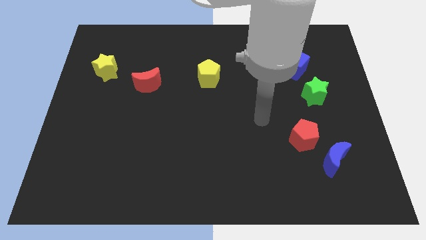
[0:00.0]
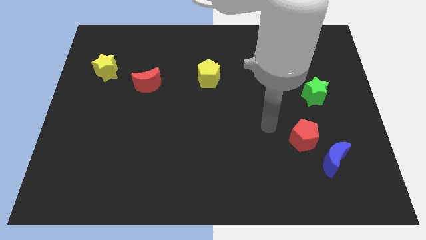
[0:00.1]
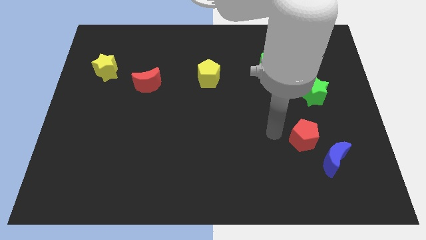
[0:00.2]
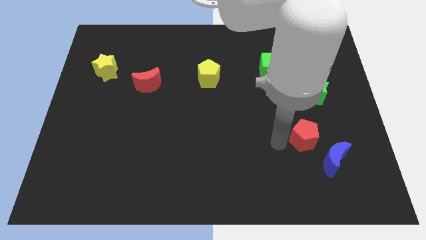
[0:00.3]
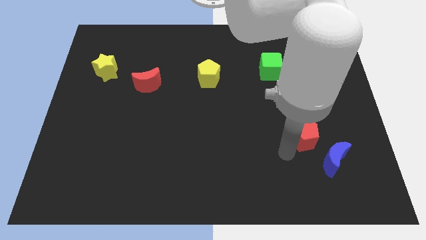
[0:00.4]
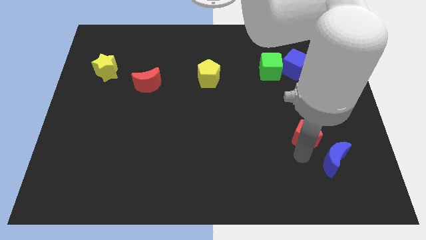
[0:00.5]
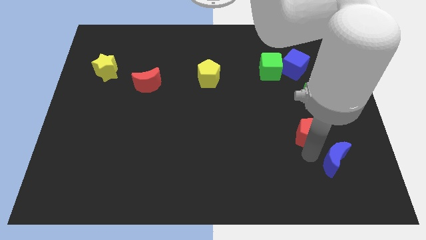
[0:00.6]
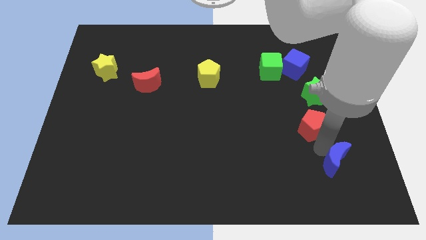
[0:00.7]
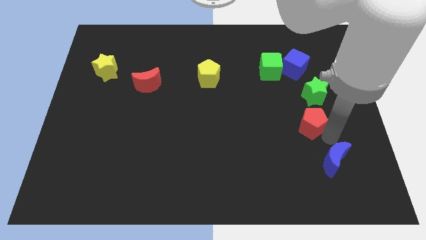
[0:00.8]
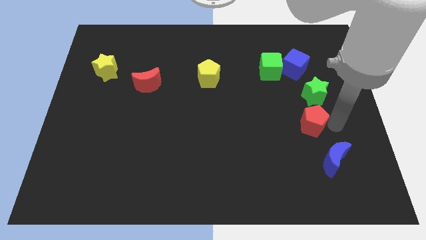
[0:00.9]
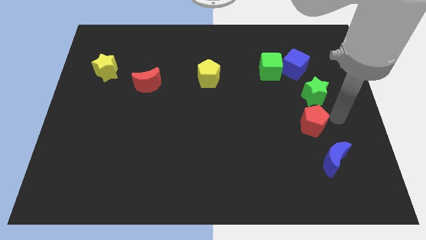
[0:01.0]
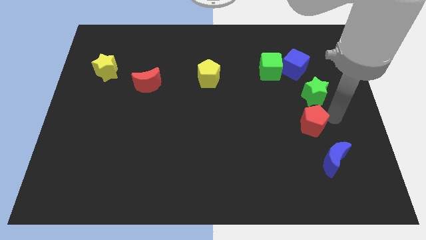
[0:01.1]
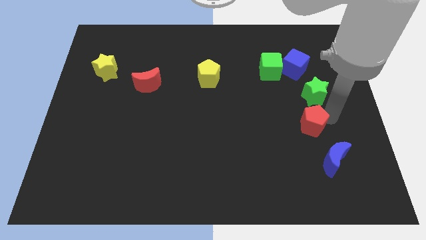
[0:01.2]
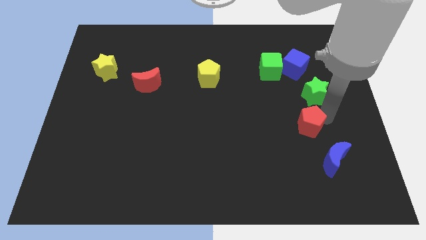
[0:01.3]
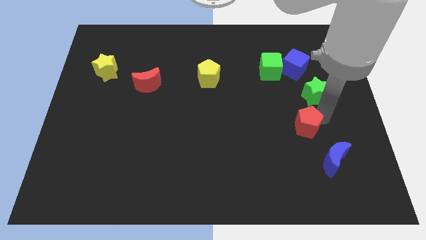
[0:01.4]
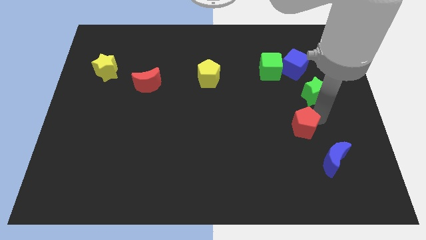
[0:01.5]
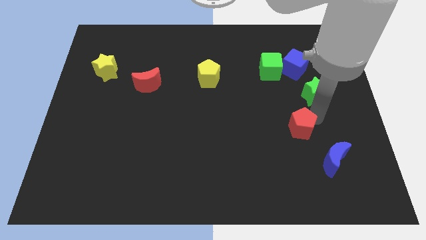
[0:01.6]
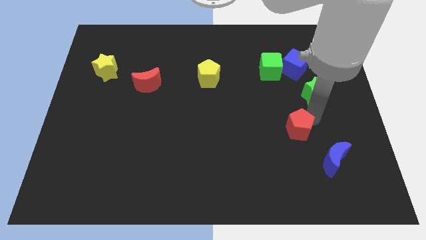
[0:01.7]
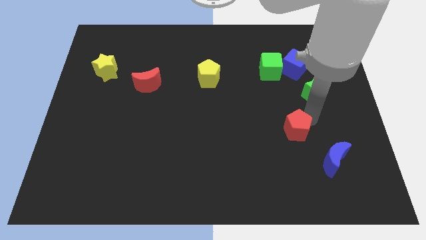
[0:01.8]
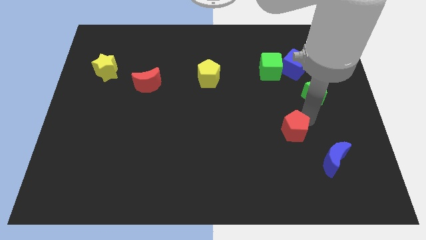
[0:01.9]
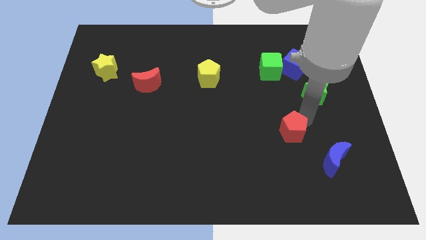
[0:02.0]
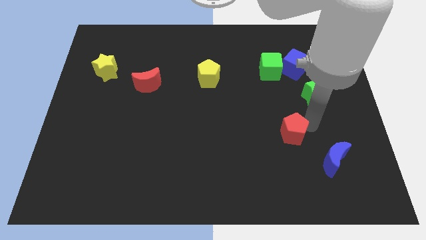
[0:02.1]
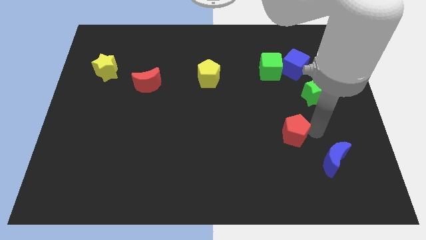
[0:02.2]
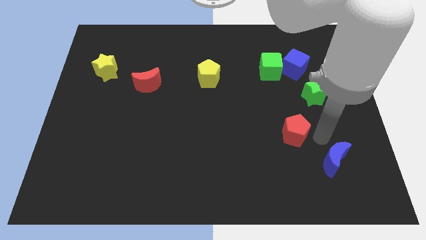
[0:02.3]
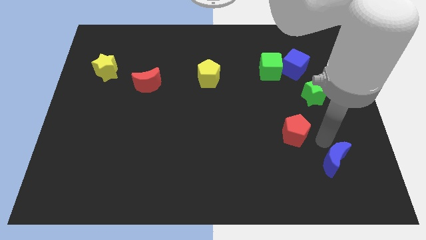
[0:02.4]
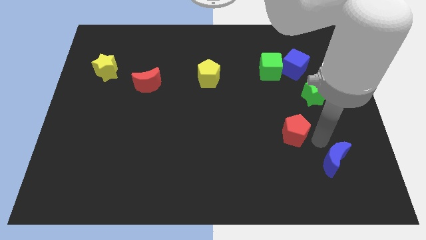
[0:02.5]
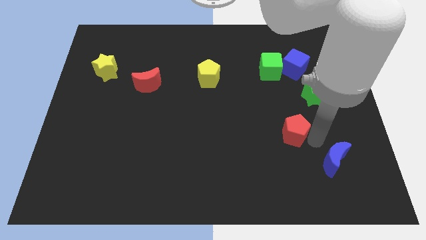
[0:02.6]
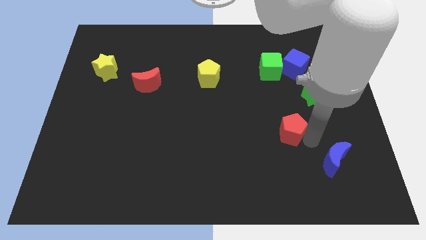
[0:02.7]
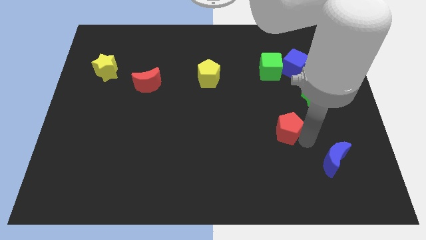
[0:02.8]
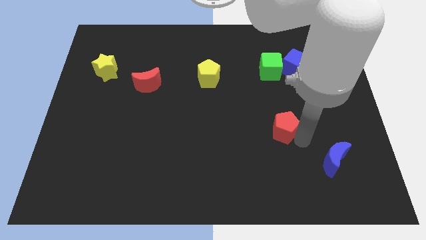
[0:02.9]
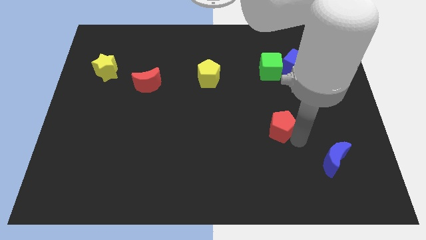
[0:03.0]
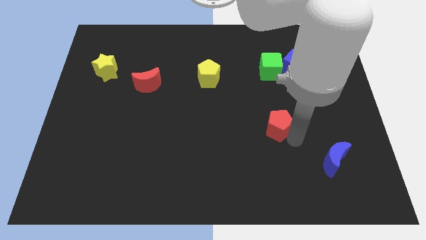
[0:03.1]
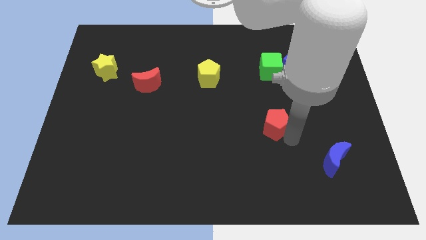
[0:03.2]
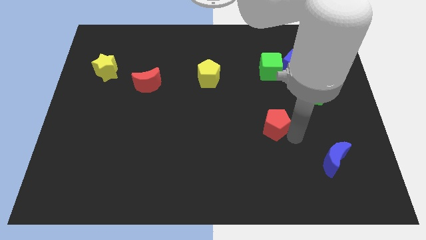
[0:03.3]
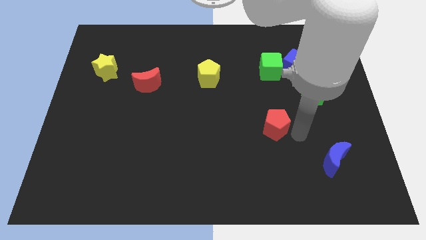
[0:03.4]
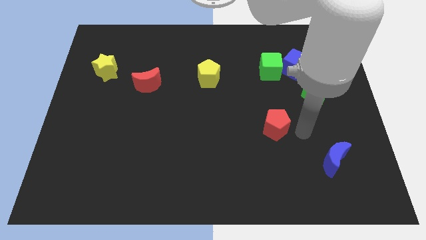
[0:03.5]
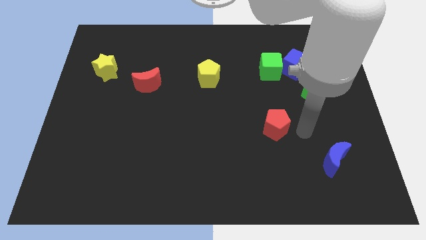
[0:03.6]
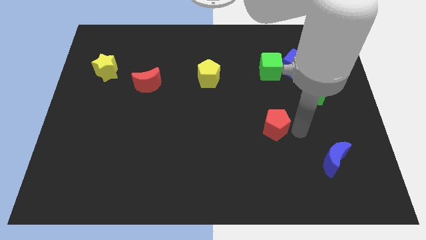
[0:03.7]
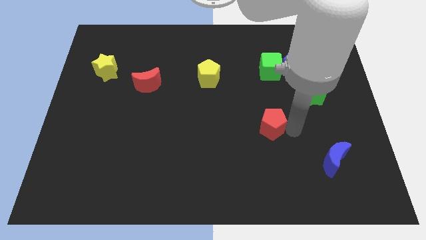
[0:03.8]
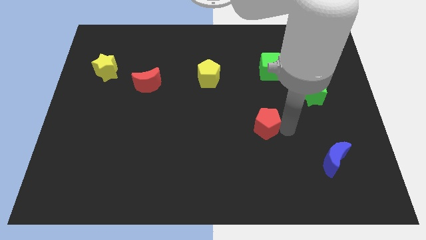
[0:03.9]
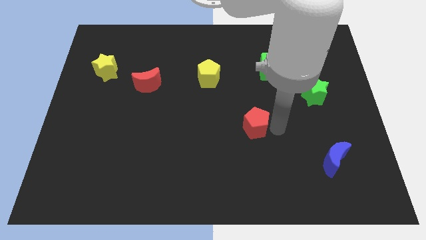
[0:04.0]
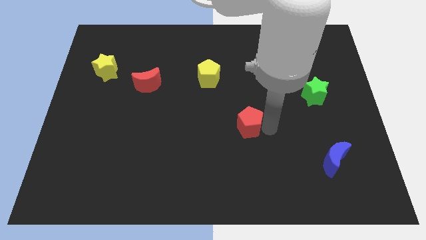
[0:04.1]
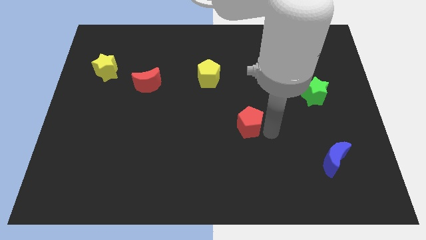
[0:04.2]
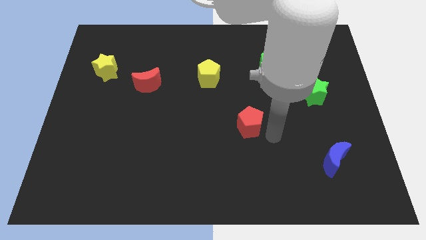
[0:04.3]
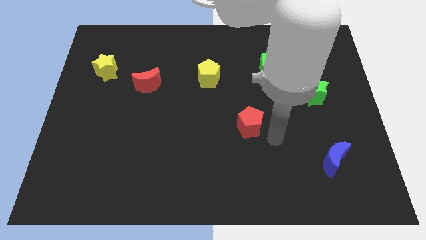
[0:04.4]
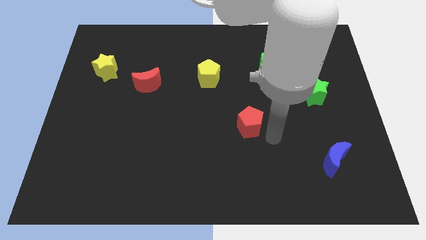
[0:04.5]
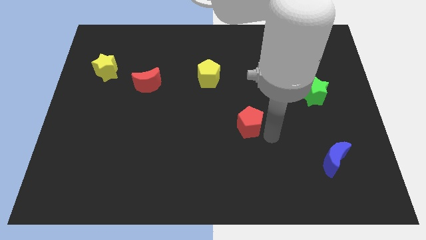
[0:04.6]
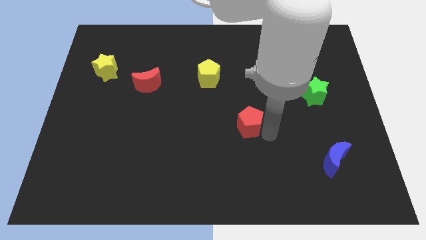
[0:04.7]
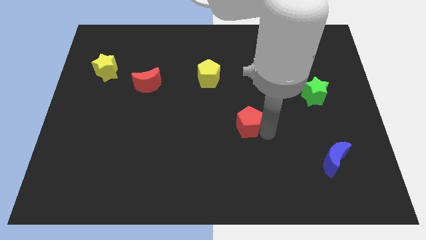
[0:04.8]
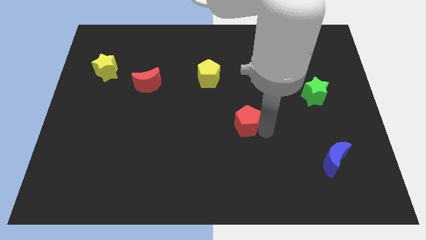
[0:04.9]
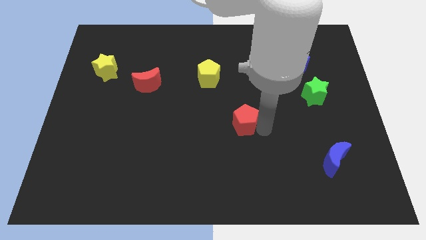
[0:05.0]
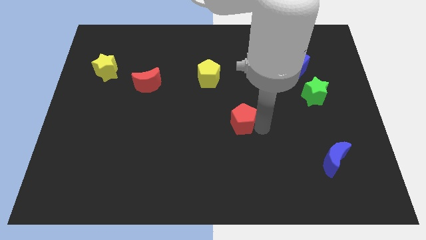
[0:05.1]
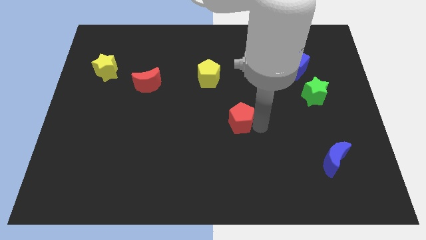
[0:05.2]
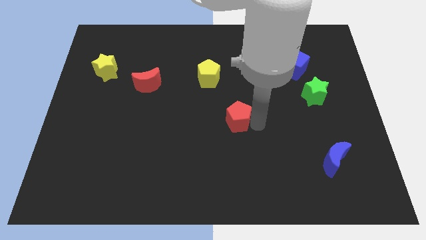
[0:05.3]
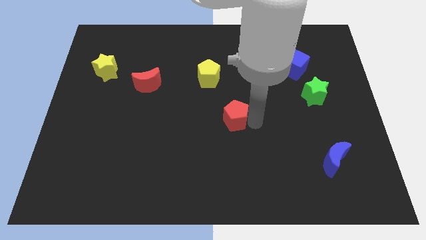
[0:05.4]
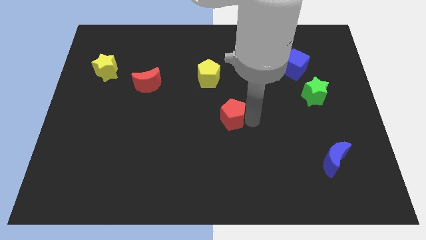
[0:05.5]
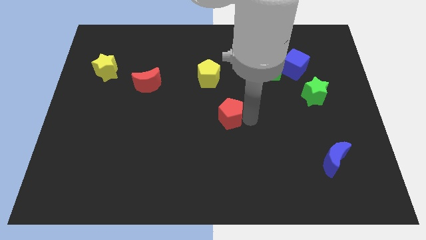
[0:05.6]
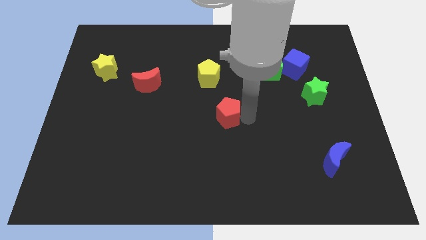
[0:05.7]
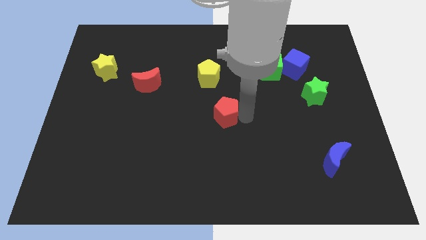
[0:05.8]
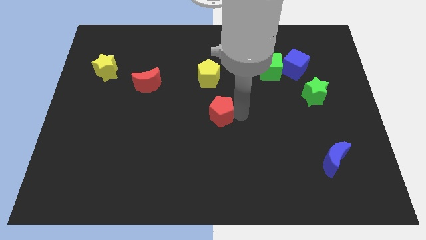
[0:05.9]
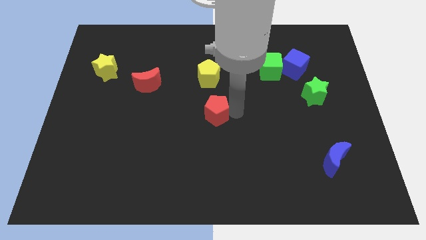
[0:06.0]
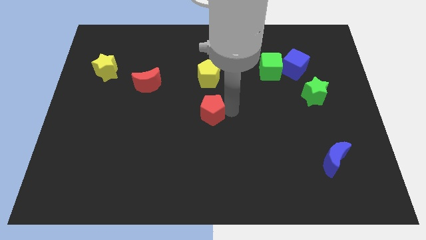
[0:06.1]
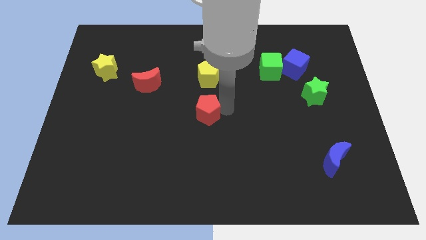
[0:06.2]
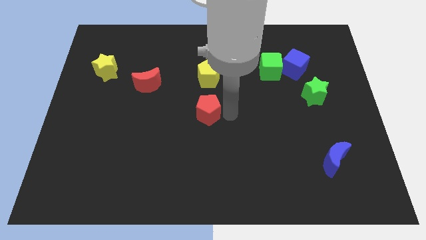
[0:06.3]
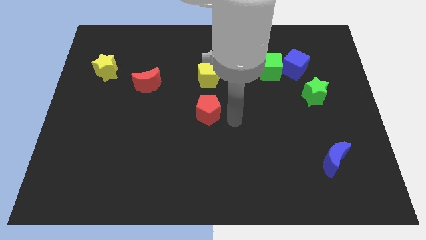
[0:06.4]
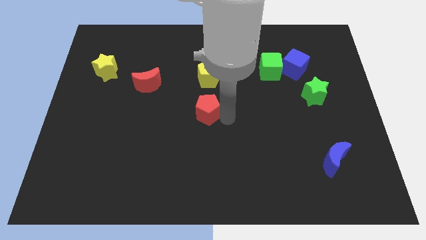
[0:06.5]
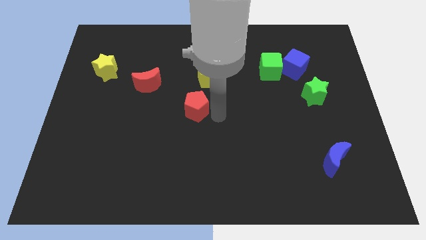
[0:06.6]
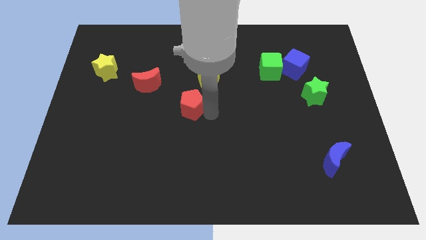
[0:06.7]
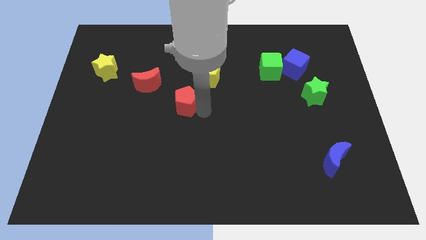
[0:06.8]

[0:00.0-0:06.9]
push the red pentagon diagonally down and to the right of the red moon
